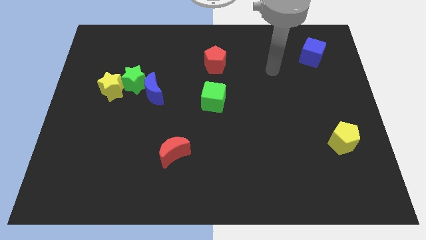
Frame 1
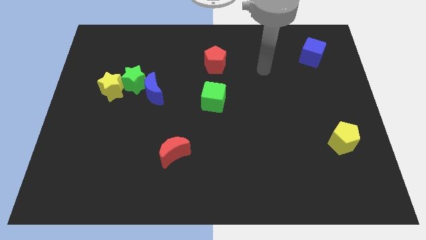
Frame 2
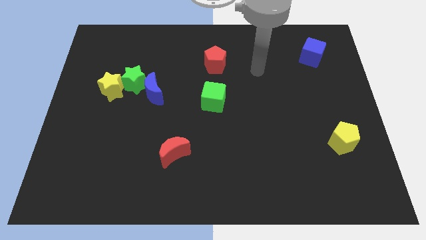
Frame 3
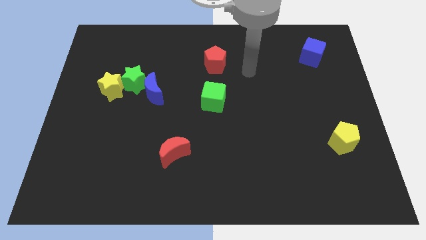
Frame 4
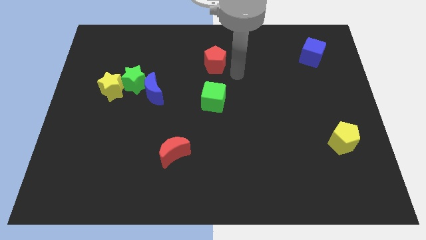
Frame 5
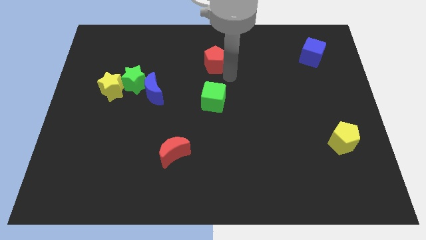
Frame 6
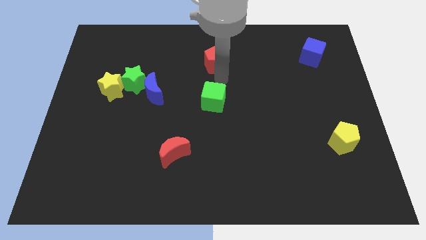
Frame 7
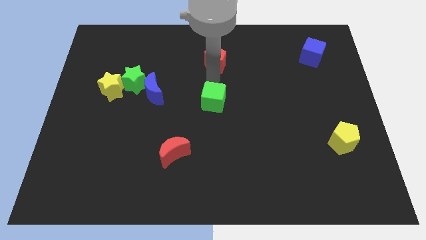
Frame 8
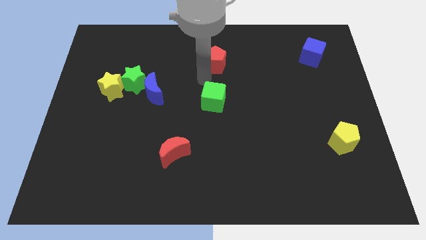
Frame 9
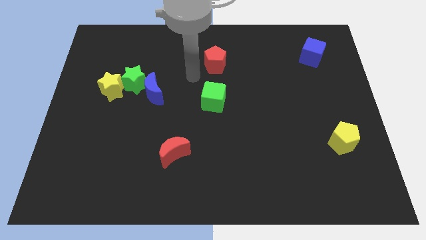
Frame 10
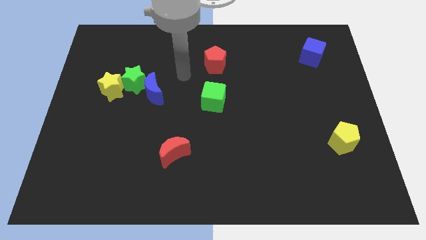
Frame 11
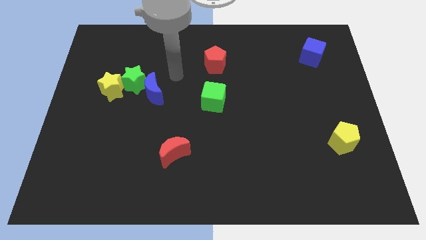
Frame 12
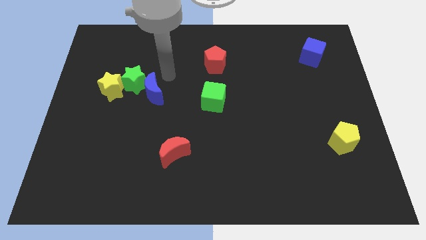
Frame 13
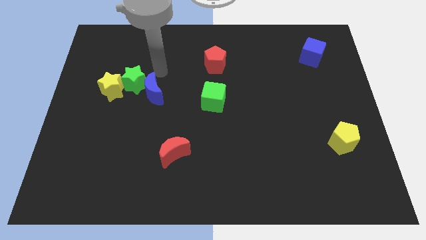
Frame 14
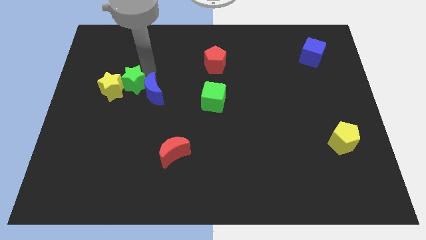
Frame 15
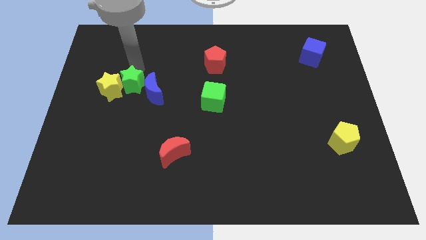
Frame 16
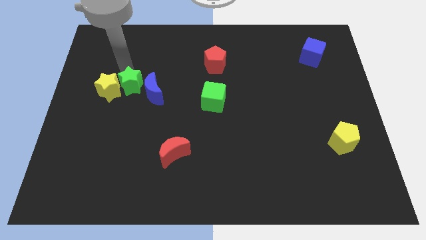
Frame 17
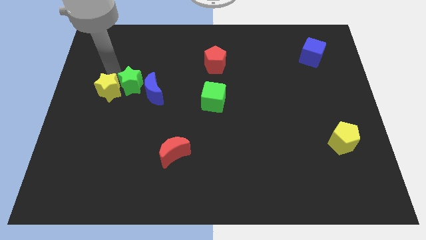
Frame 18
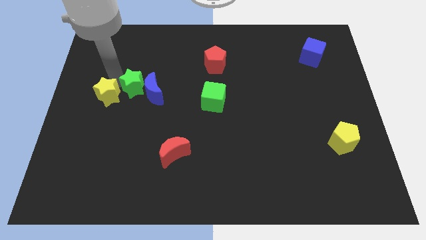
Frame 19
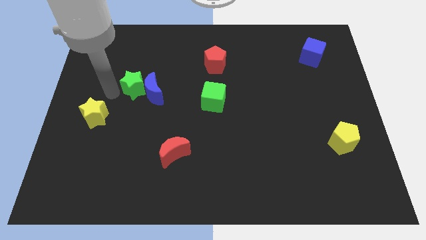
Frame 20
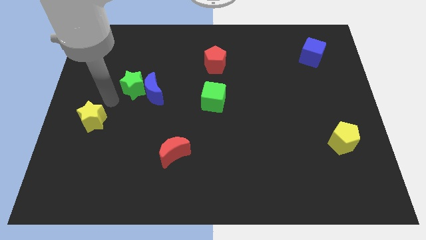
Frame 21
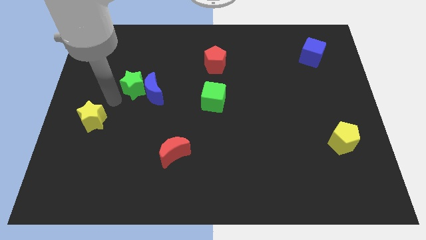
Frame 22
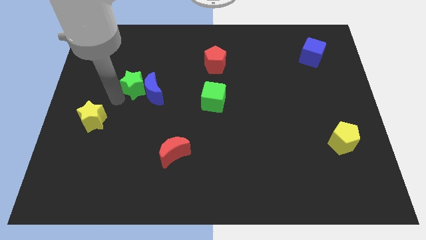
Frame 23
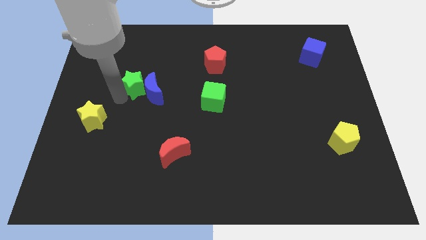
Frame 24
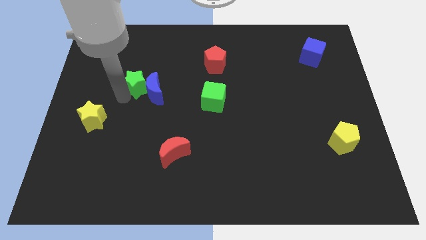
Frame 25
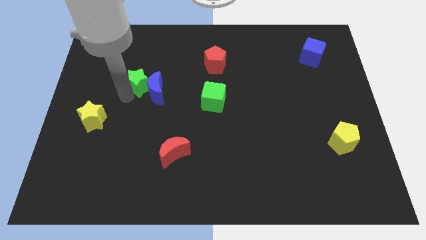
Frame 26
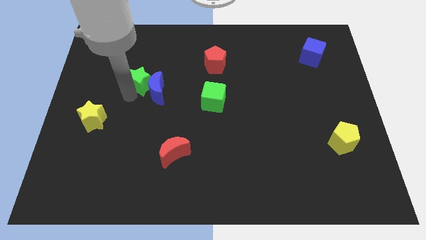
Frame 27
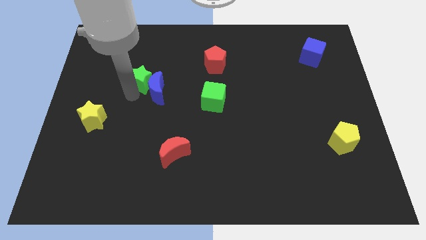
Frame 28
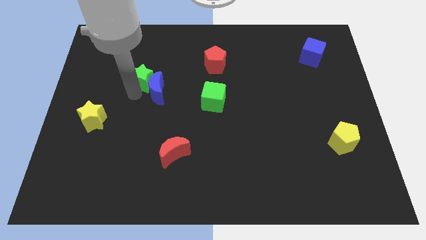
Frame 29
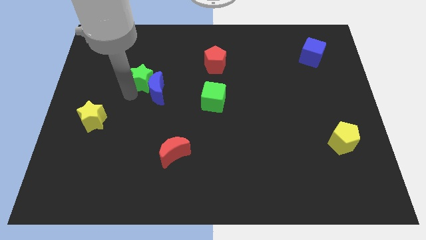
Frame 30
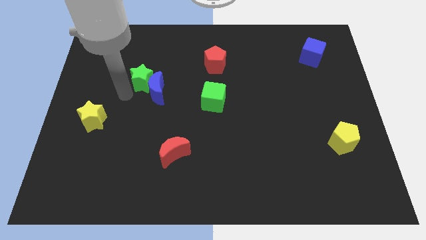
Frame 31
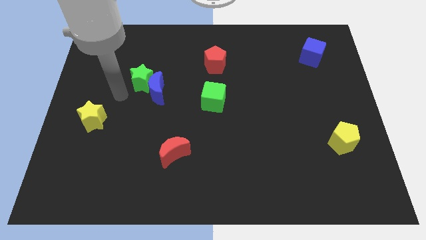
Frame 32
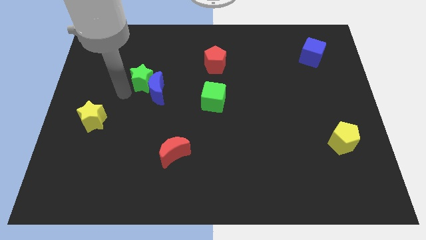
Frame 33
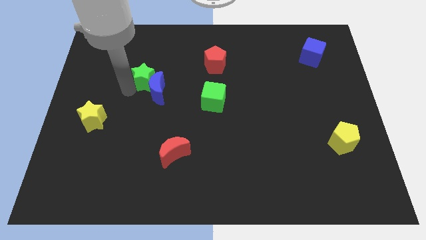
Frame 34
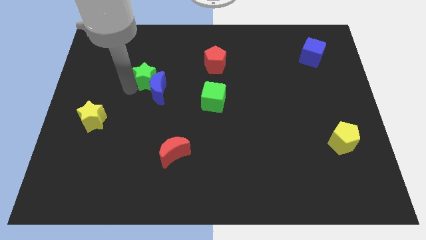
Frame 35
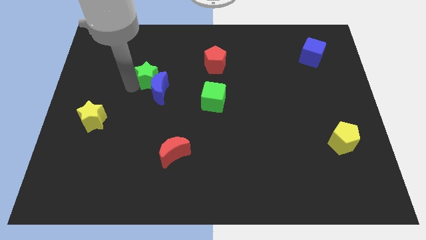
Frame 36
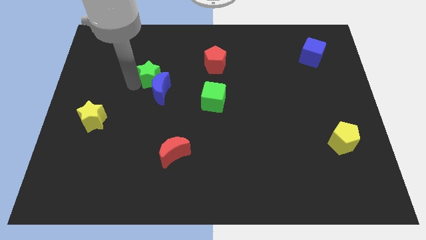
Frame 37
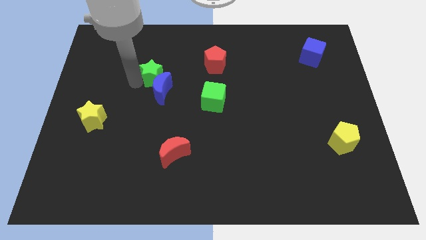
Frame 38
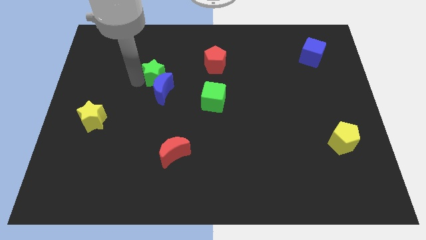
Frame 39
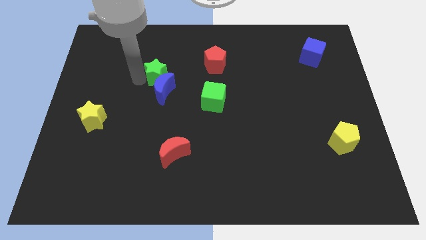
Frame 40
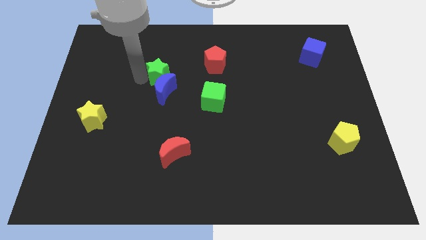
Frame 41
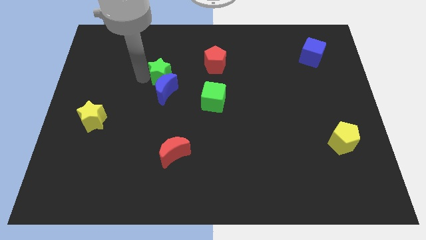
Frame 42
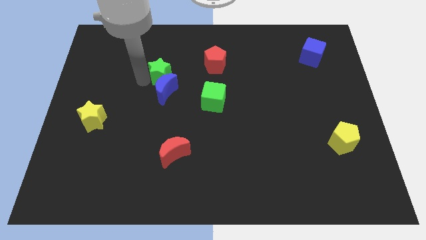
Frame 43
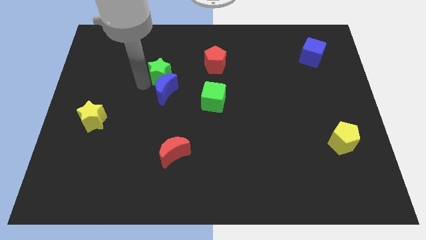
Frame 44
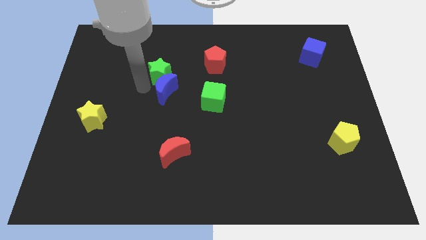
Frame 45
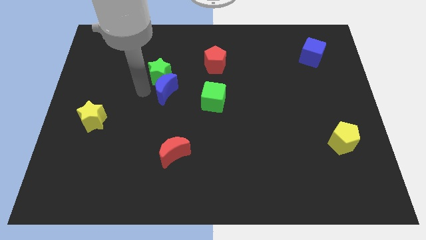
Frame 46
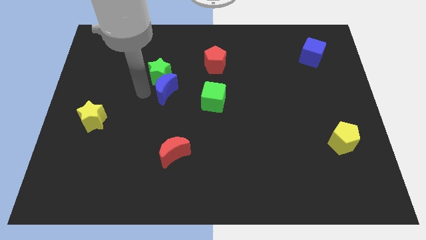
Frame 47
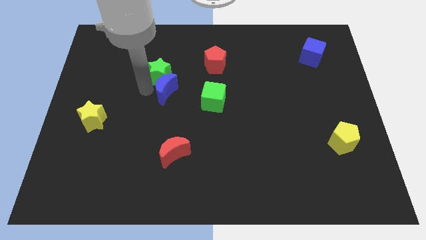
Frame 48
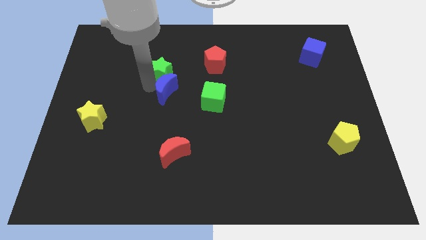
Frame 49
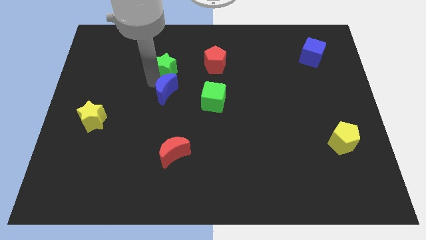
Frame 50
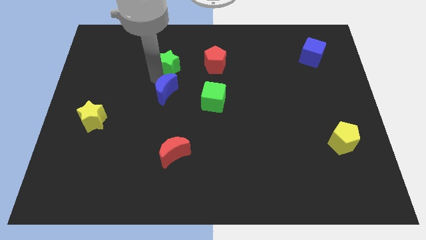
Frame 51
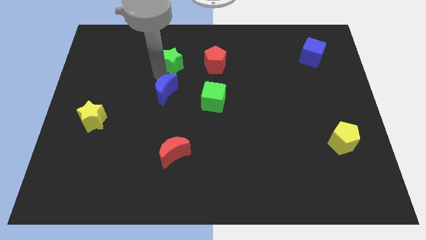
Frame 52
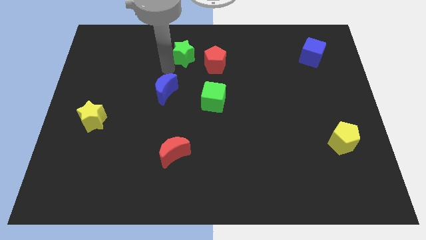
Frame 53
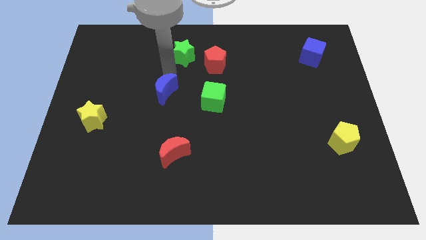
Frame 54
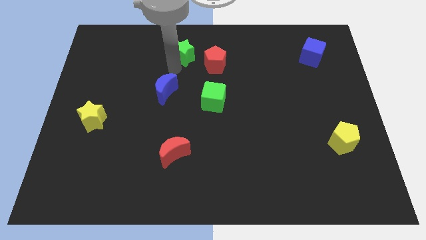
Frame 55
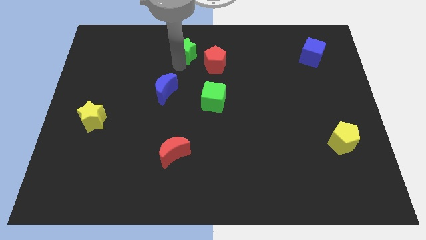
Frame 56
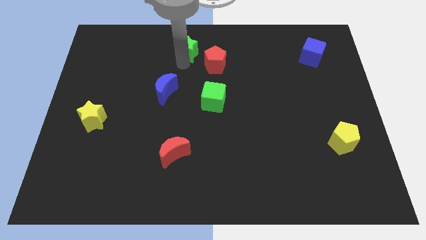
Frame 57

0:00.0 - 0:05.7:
push the green star to the top side

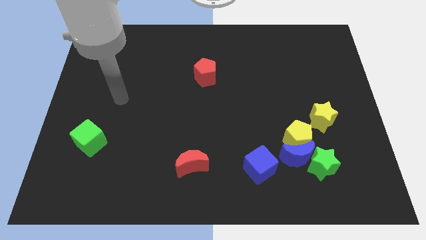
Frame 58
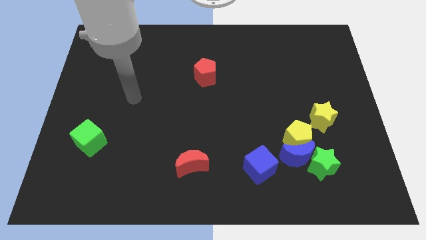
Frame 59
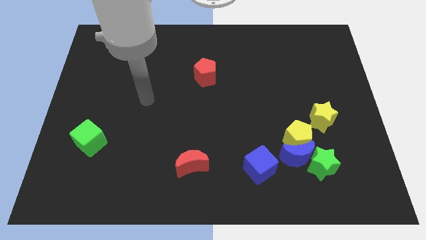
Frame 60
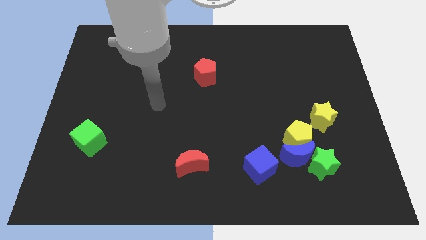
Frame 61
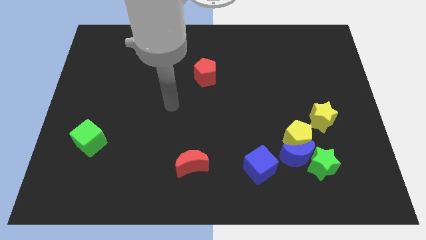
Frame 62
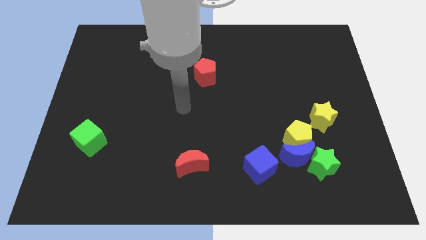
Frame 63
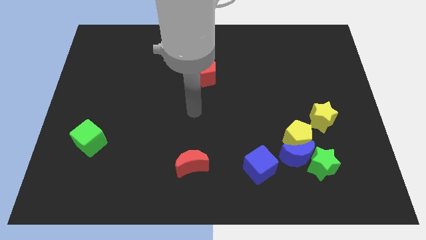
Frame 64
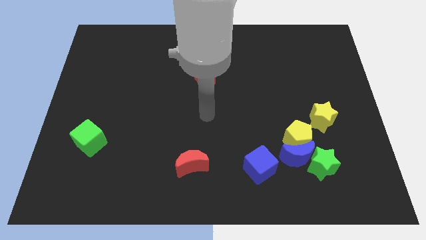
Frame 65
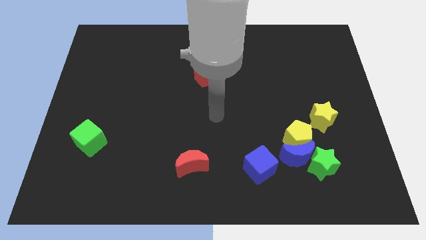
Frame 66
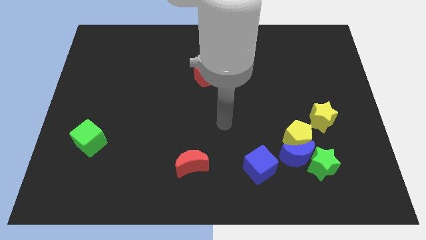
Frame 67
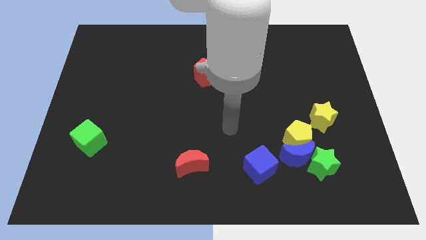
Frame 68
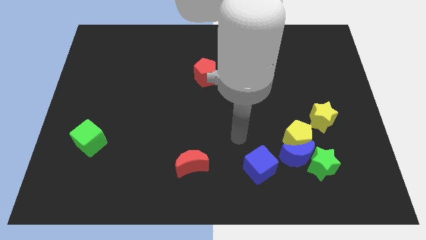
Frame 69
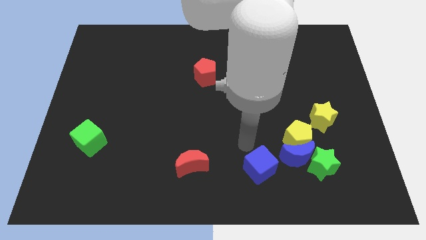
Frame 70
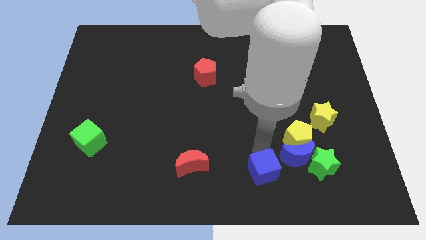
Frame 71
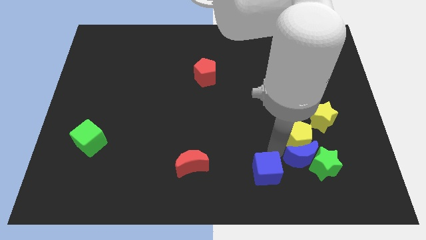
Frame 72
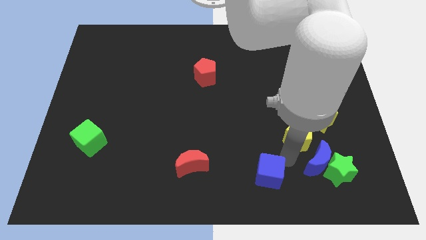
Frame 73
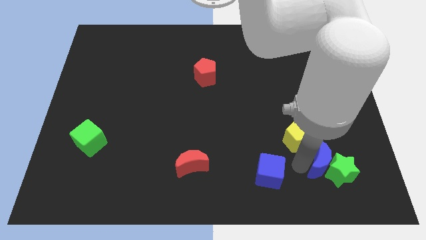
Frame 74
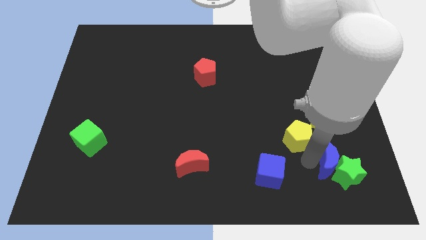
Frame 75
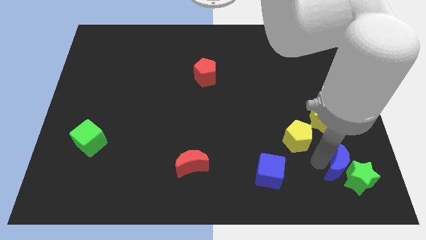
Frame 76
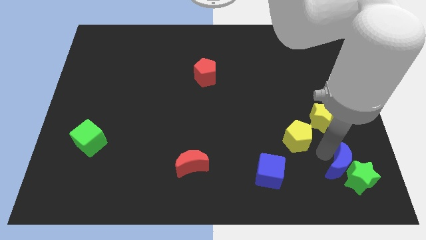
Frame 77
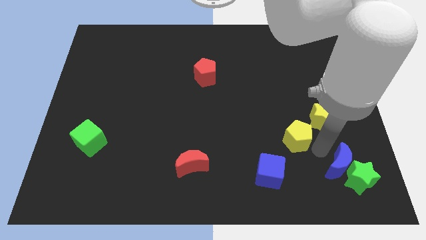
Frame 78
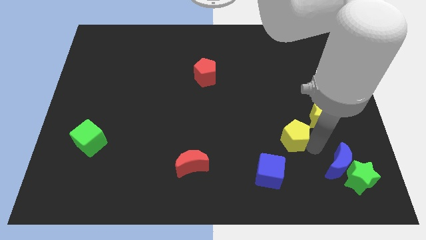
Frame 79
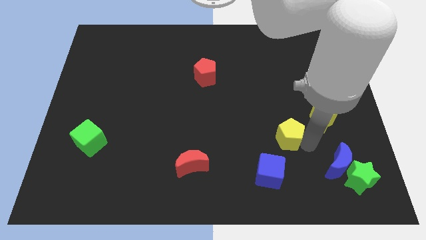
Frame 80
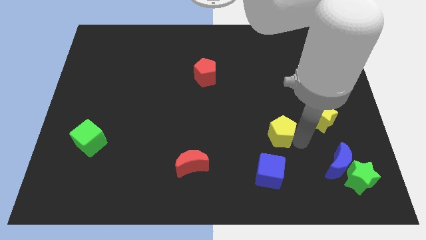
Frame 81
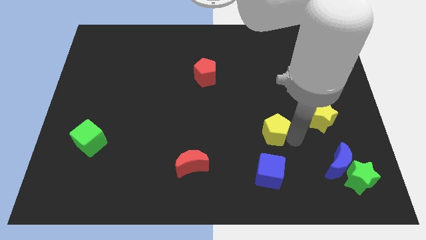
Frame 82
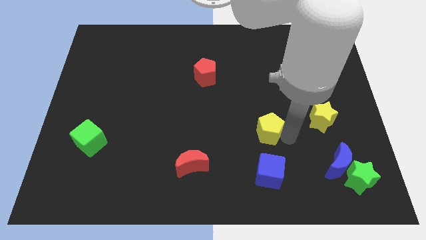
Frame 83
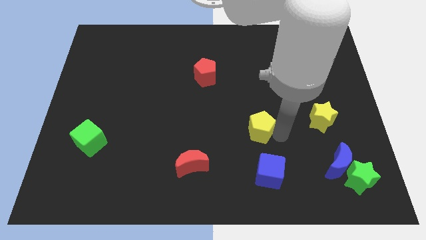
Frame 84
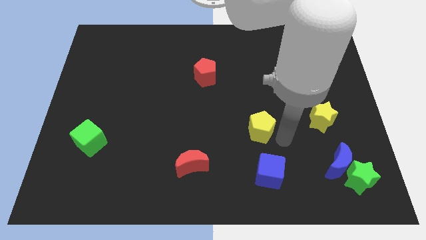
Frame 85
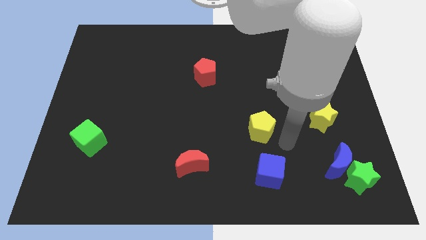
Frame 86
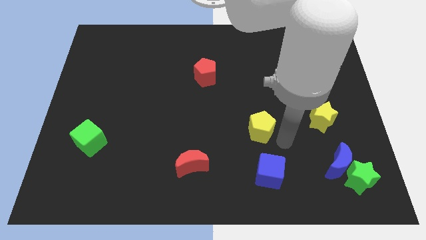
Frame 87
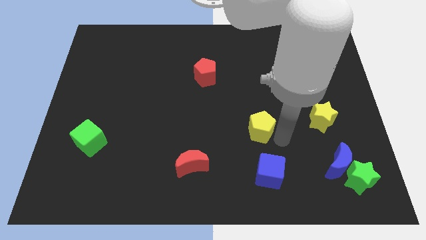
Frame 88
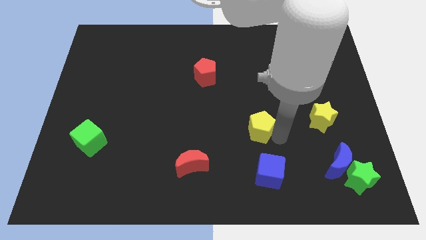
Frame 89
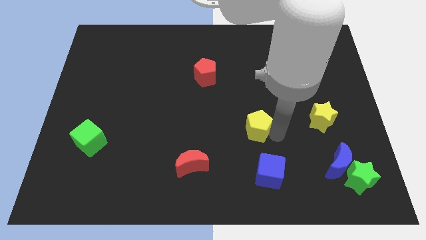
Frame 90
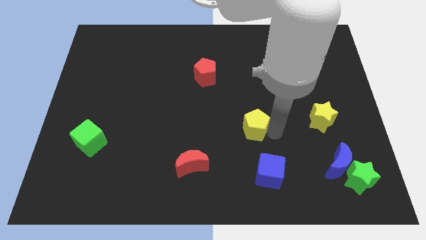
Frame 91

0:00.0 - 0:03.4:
put the yellow pentagon to the middle
